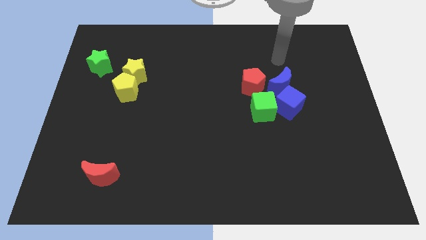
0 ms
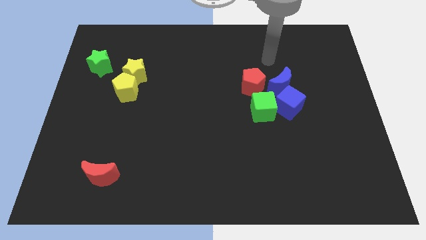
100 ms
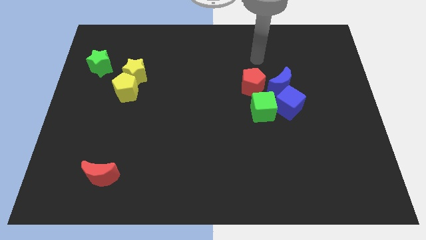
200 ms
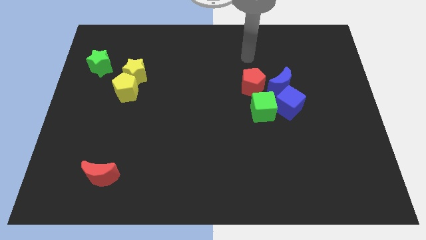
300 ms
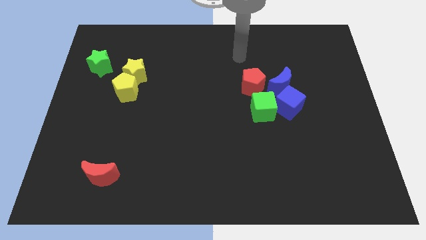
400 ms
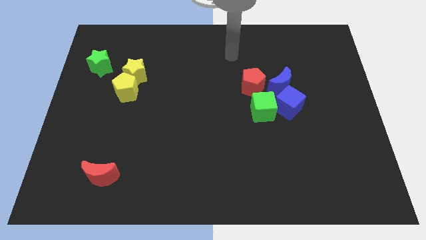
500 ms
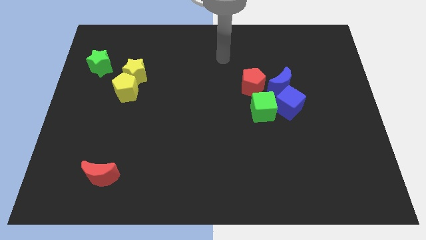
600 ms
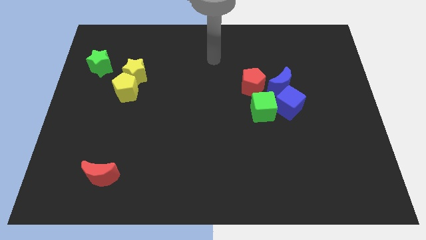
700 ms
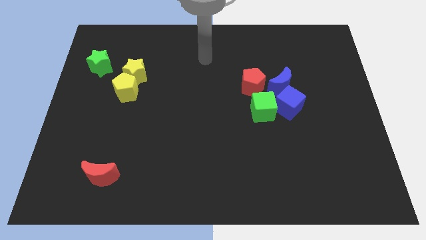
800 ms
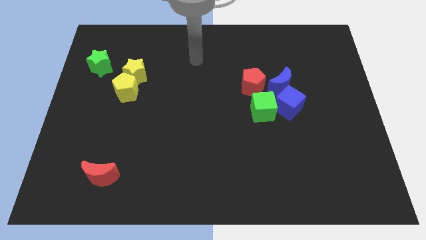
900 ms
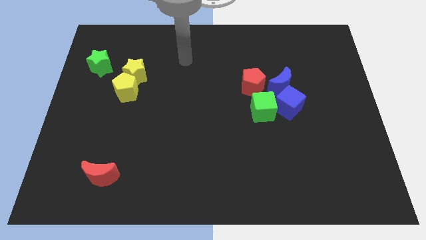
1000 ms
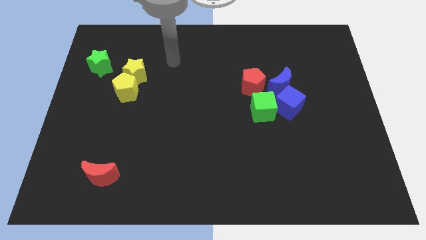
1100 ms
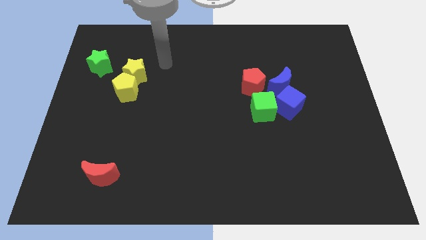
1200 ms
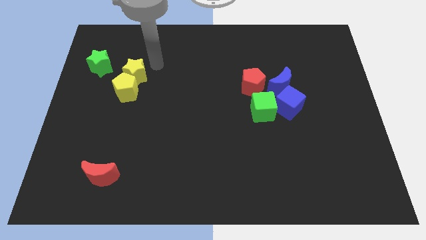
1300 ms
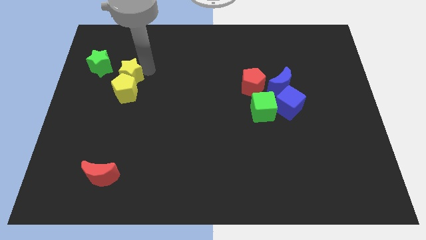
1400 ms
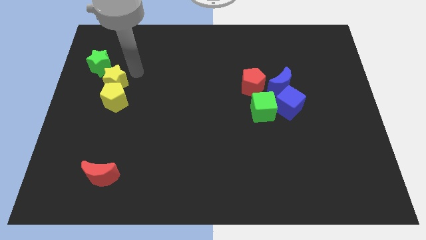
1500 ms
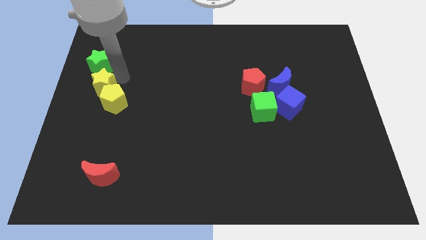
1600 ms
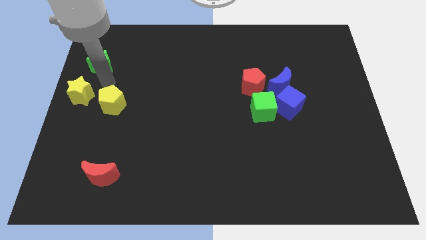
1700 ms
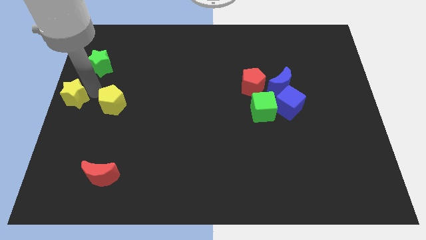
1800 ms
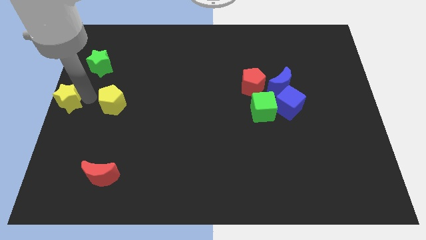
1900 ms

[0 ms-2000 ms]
move the yellow pentagon away from the yellow star

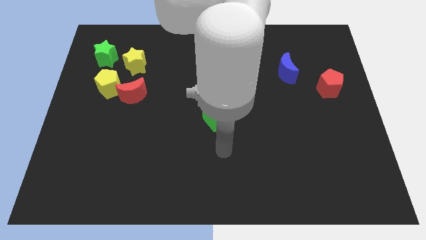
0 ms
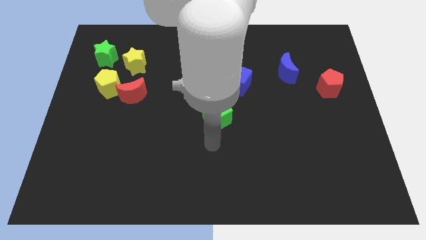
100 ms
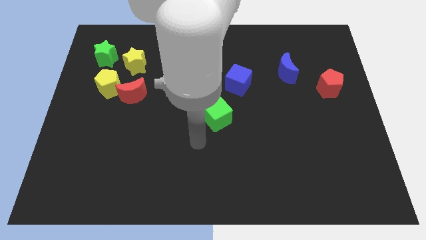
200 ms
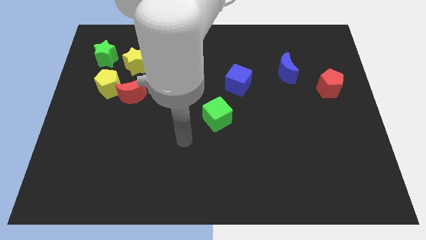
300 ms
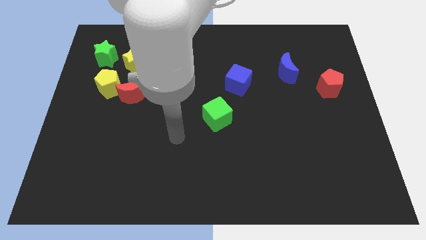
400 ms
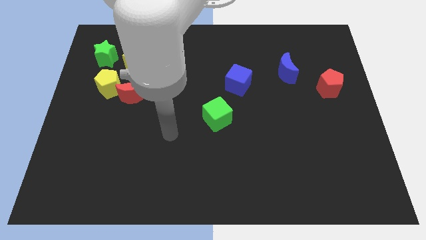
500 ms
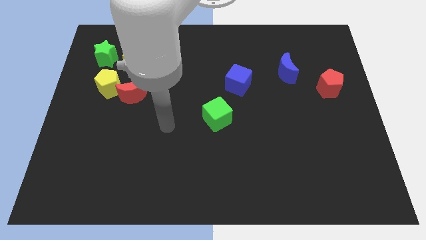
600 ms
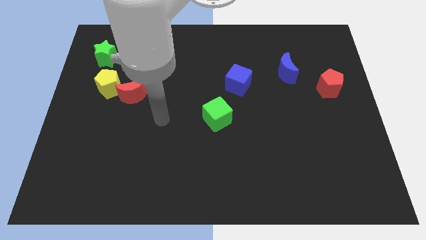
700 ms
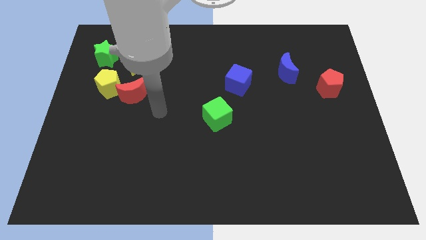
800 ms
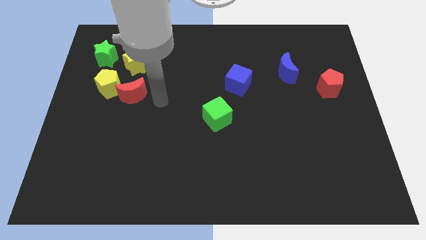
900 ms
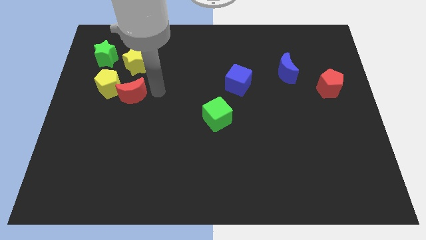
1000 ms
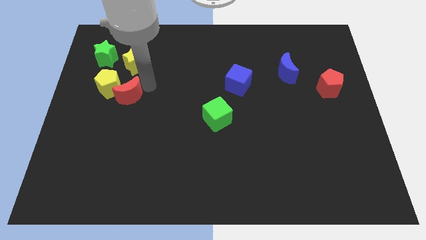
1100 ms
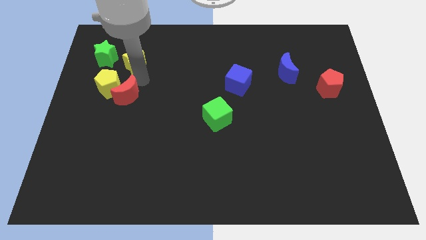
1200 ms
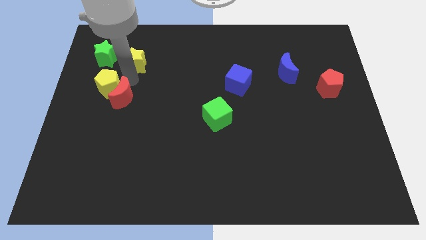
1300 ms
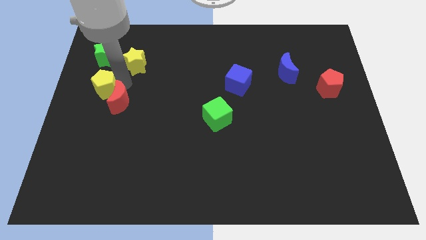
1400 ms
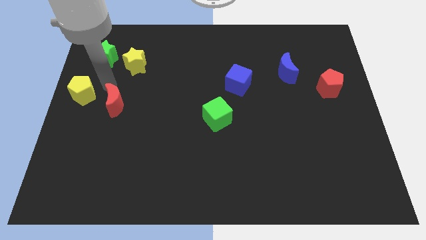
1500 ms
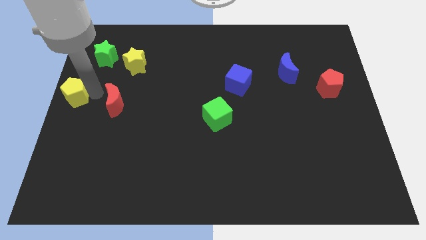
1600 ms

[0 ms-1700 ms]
pull the red moon apart from the yellow pentagon

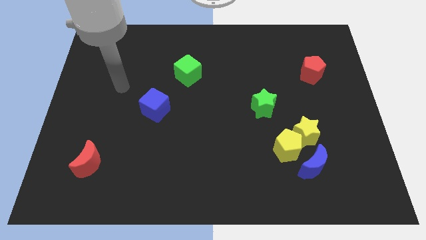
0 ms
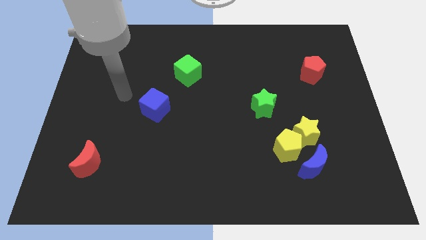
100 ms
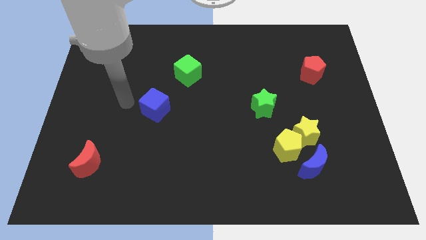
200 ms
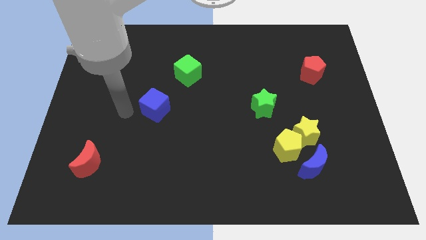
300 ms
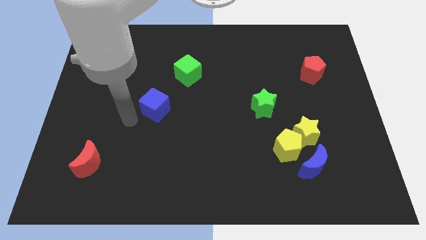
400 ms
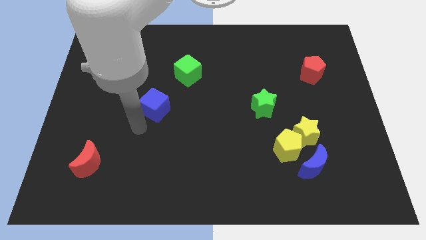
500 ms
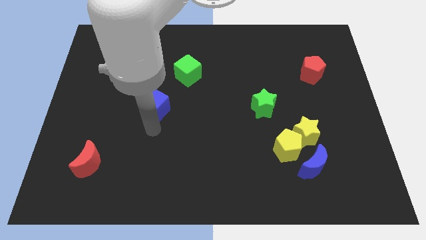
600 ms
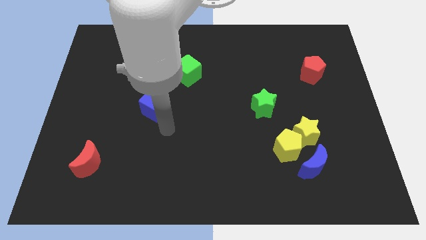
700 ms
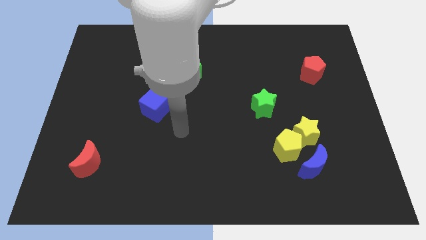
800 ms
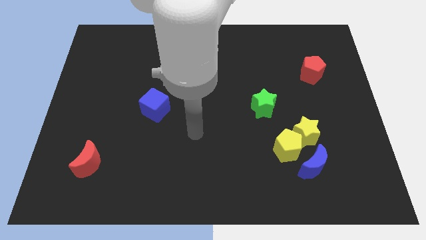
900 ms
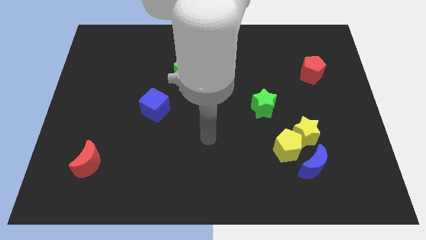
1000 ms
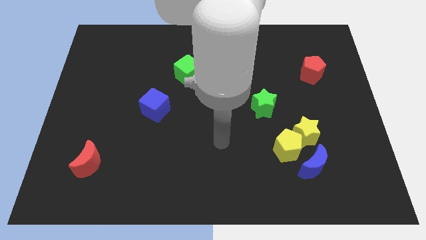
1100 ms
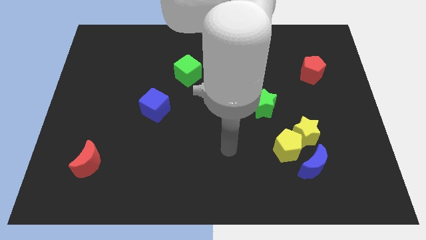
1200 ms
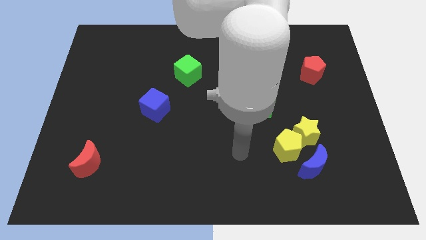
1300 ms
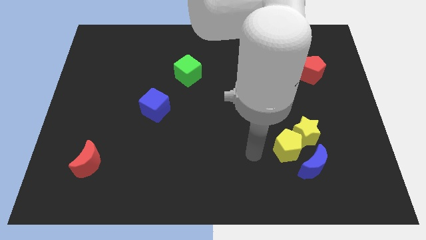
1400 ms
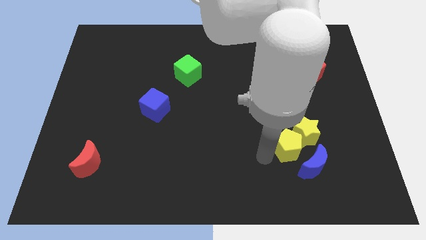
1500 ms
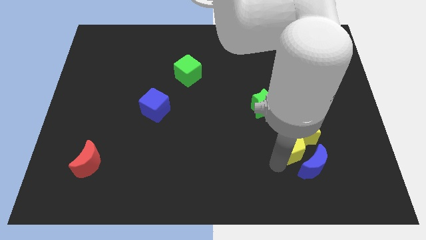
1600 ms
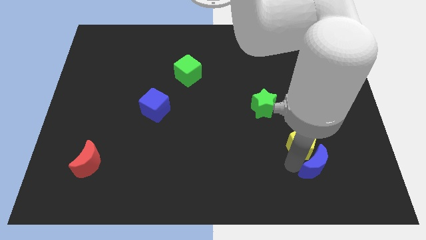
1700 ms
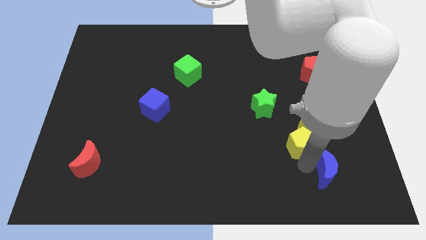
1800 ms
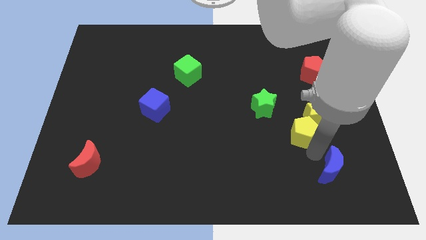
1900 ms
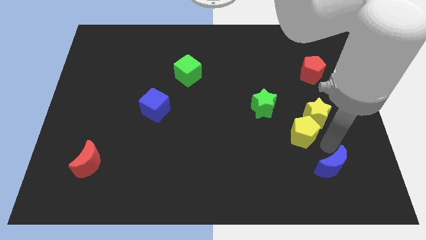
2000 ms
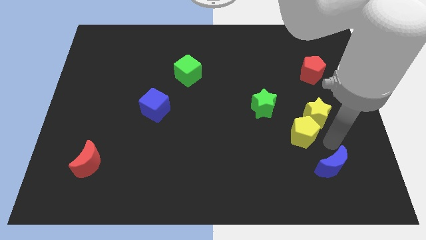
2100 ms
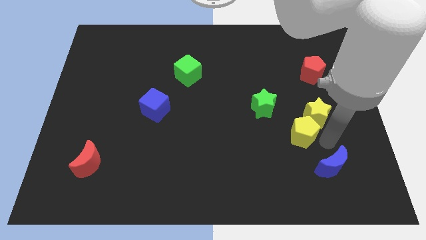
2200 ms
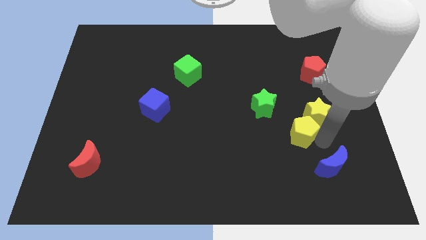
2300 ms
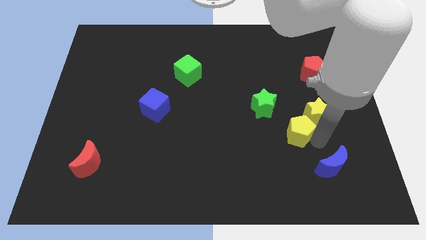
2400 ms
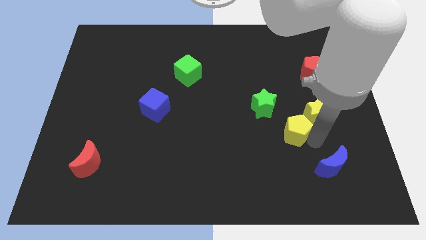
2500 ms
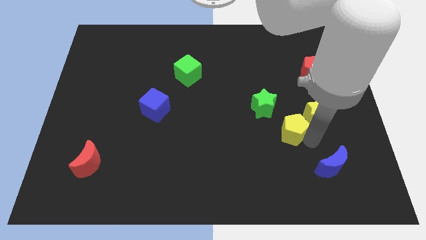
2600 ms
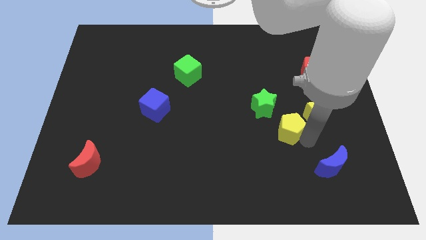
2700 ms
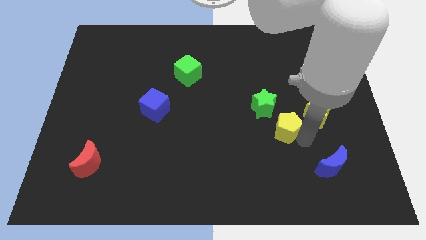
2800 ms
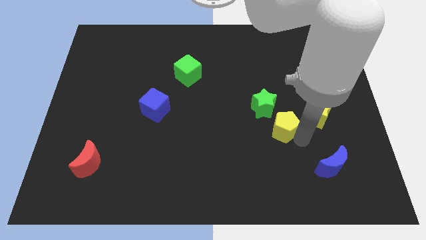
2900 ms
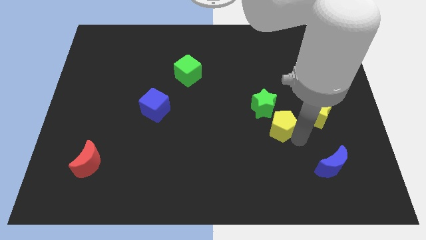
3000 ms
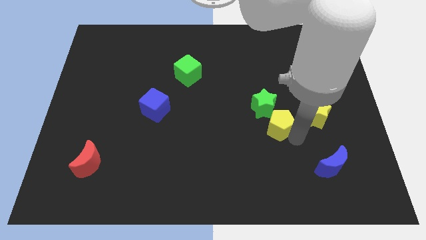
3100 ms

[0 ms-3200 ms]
separate the yellow pentagon from the yellow star and blue moon

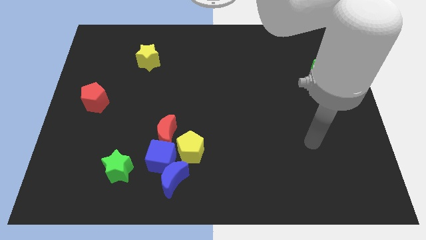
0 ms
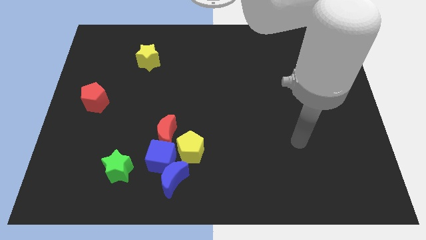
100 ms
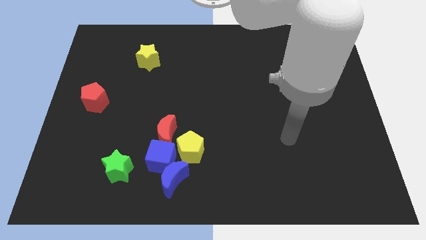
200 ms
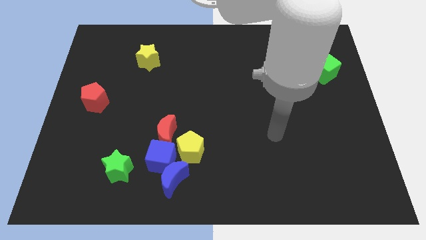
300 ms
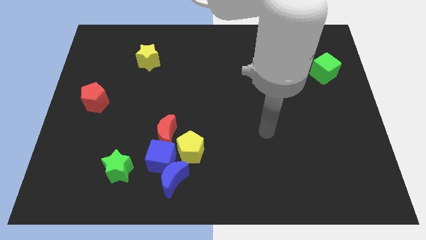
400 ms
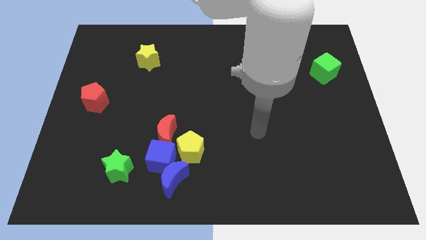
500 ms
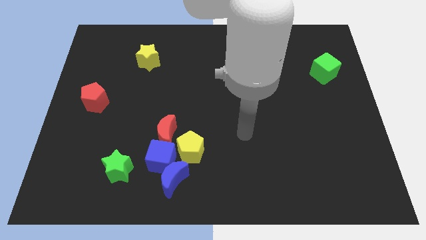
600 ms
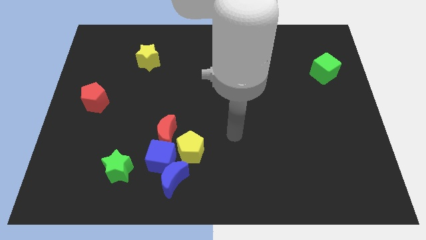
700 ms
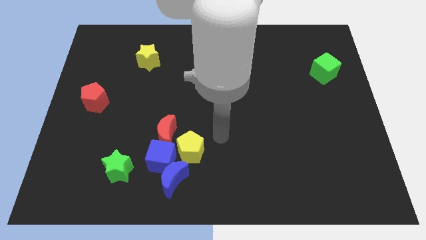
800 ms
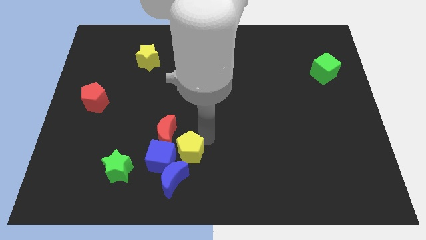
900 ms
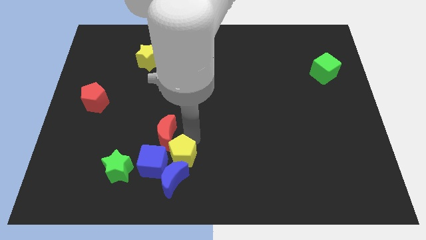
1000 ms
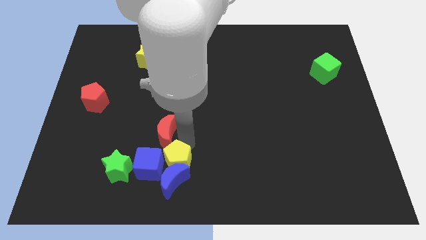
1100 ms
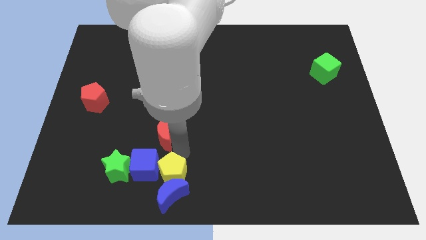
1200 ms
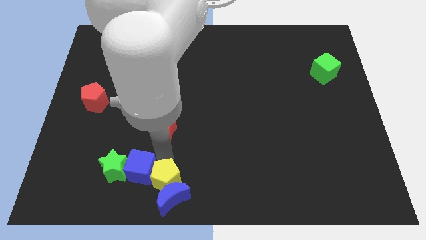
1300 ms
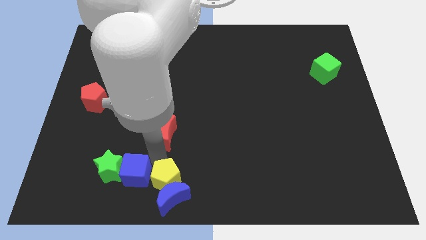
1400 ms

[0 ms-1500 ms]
separate the red moon from the blue cube and yellow pentagon

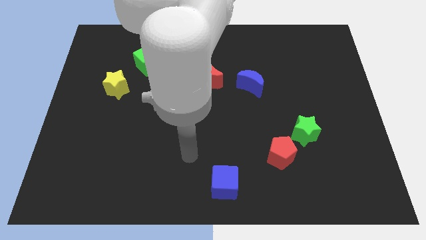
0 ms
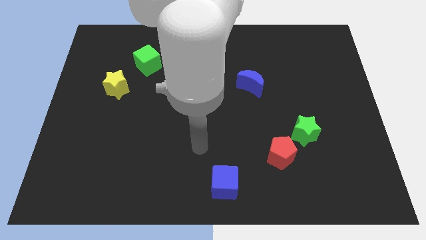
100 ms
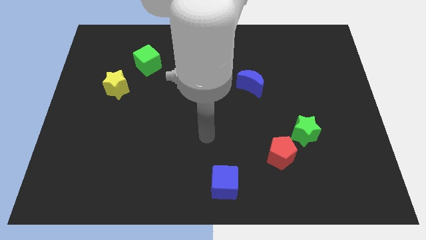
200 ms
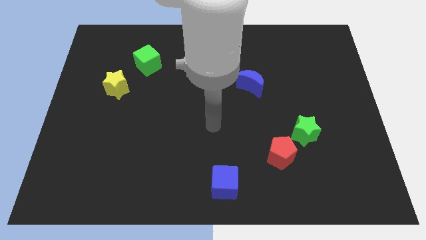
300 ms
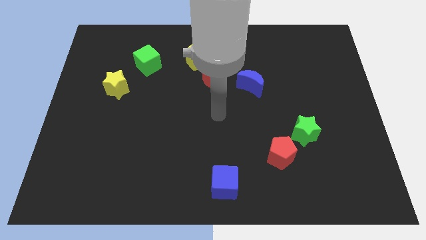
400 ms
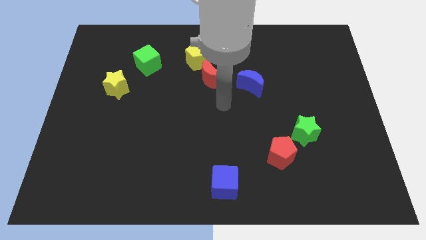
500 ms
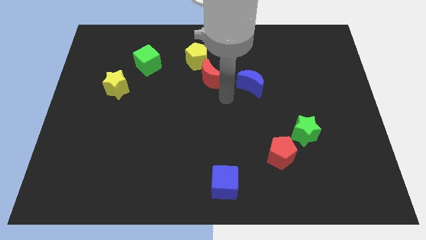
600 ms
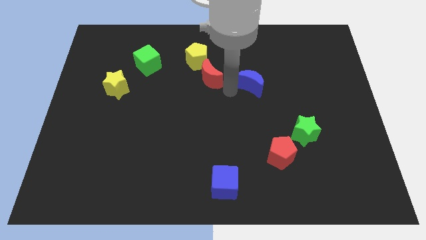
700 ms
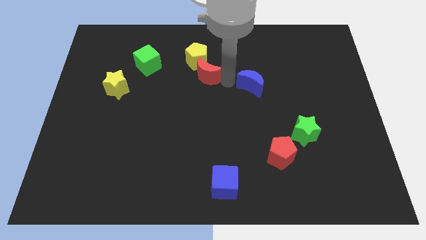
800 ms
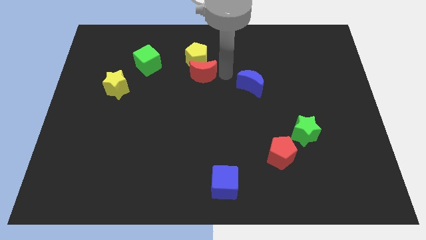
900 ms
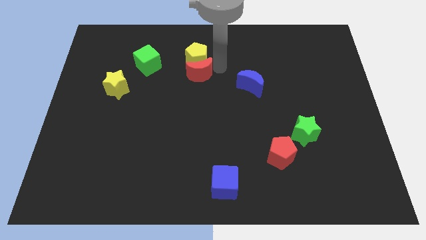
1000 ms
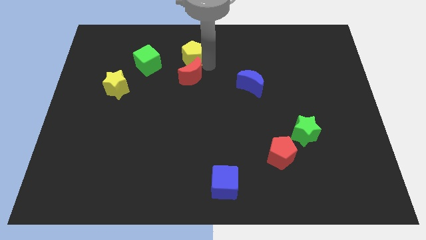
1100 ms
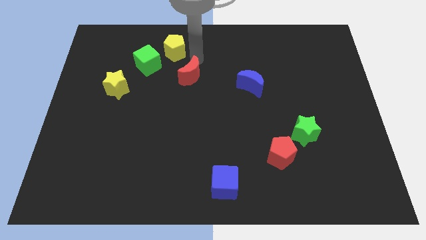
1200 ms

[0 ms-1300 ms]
move the red moon away from the yellow pentagon
